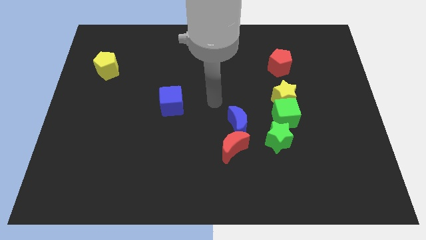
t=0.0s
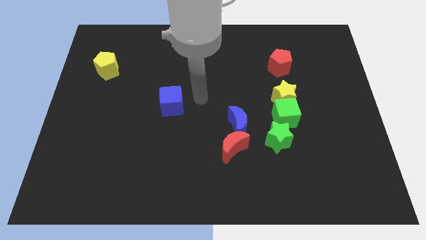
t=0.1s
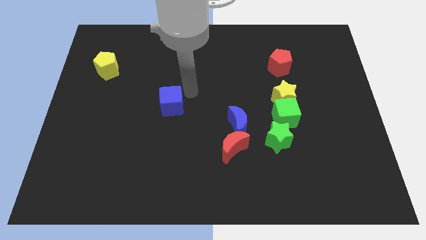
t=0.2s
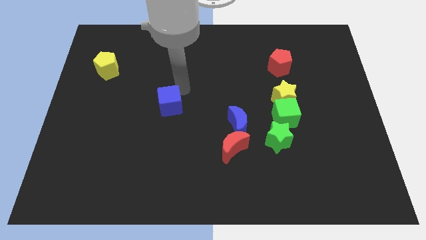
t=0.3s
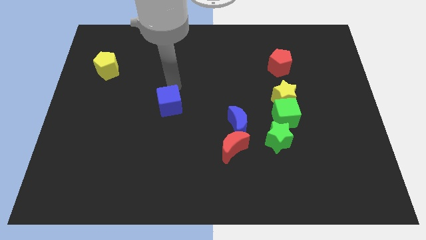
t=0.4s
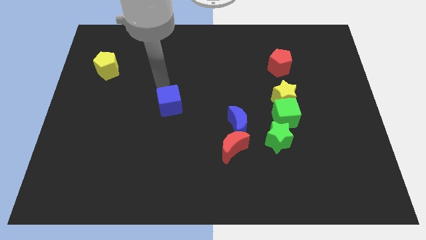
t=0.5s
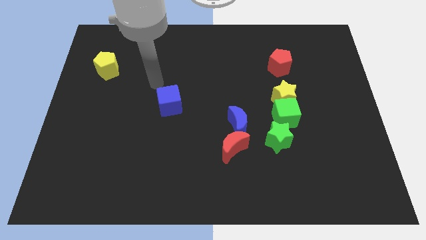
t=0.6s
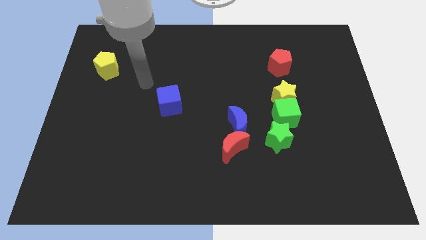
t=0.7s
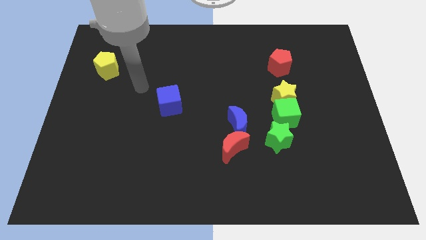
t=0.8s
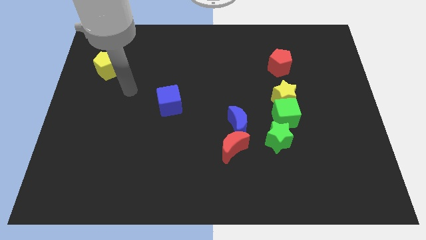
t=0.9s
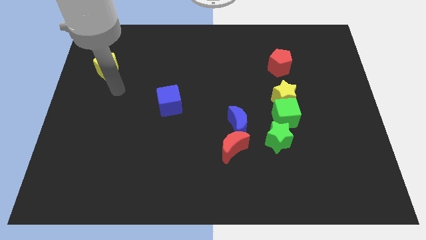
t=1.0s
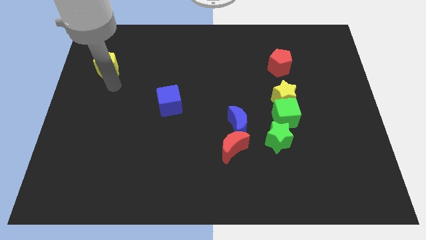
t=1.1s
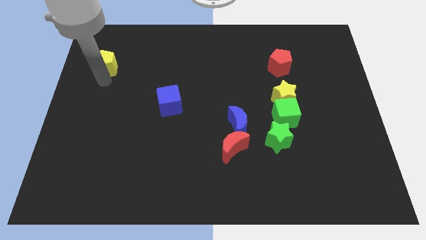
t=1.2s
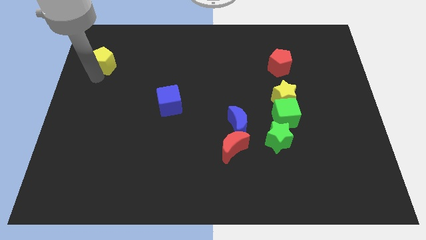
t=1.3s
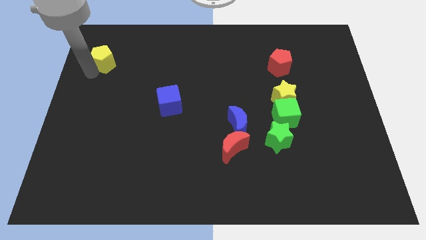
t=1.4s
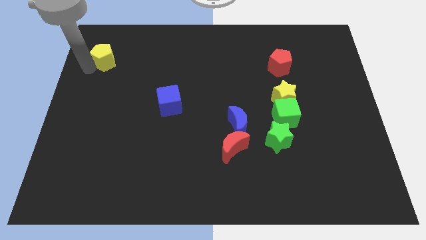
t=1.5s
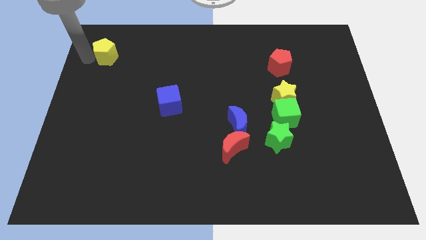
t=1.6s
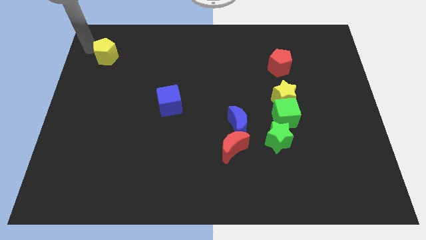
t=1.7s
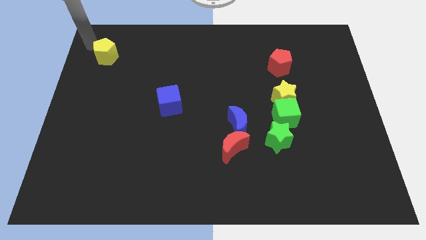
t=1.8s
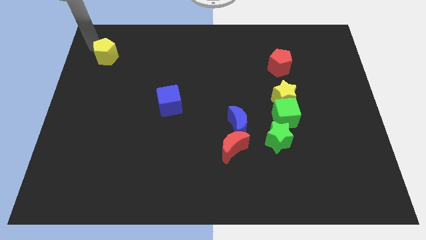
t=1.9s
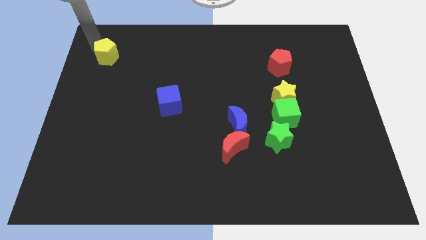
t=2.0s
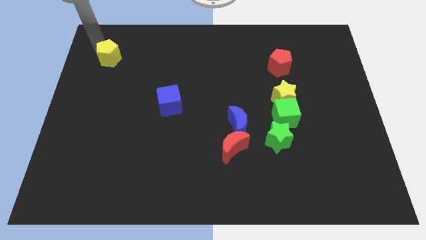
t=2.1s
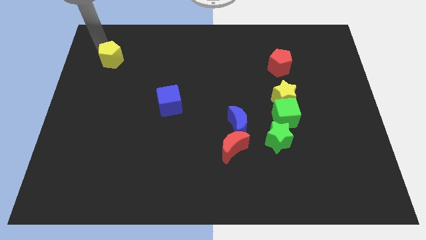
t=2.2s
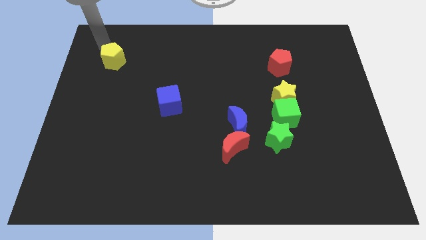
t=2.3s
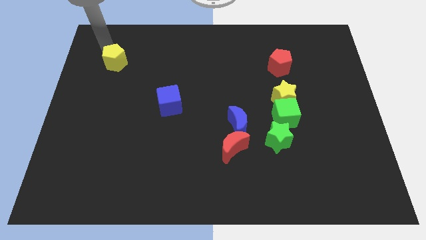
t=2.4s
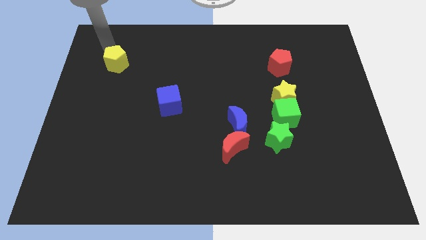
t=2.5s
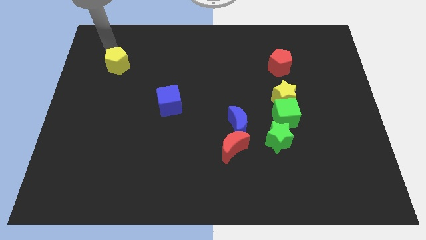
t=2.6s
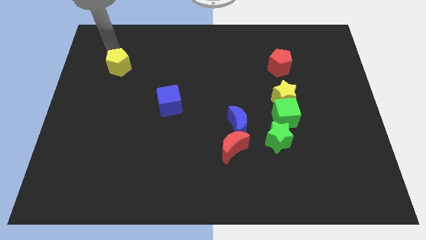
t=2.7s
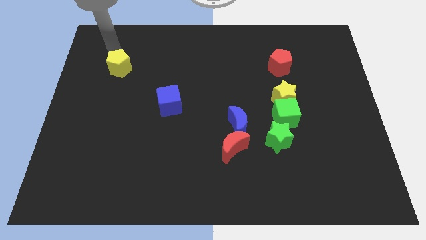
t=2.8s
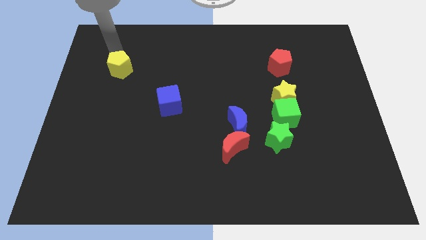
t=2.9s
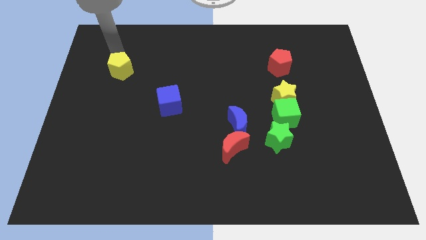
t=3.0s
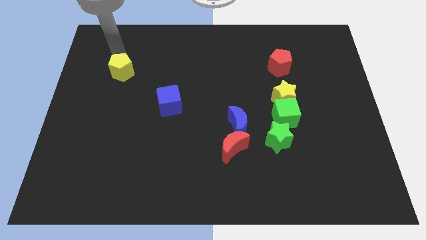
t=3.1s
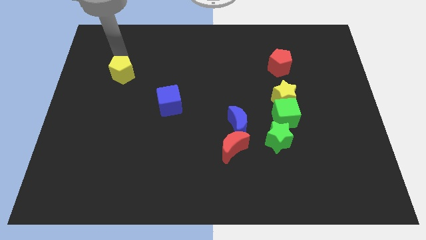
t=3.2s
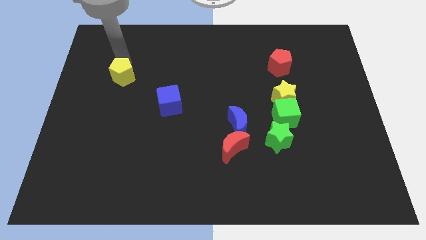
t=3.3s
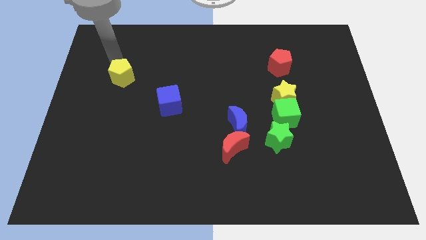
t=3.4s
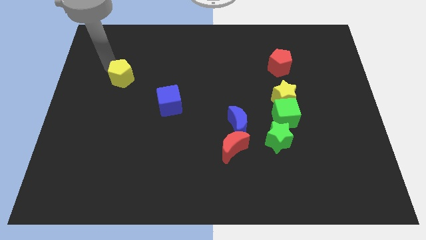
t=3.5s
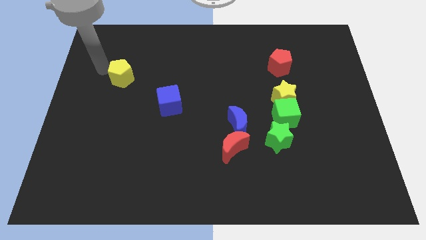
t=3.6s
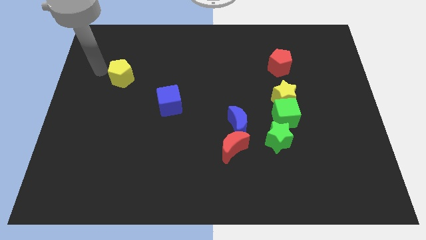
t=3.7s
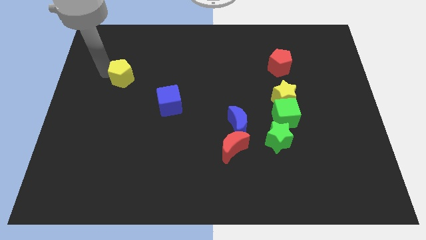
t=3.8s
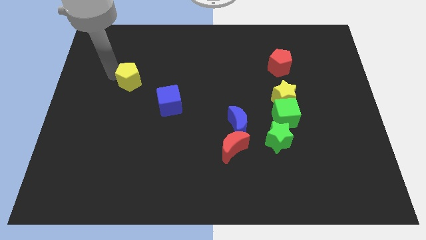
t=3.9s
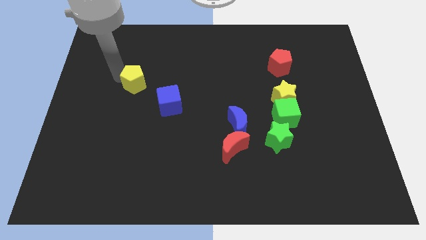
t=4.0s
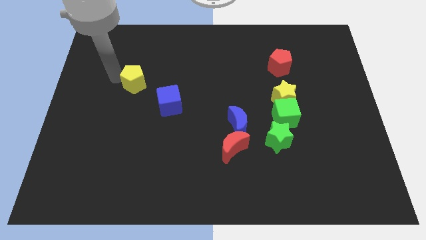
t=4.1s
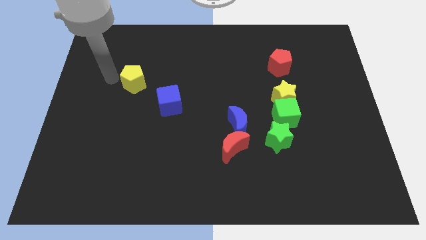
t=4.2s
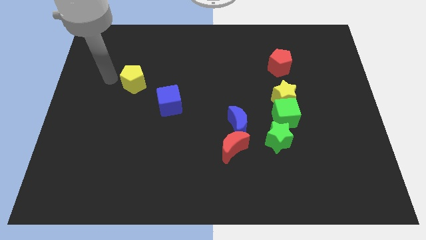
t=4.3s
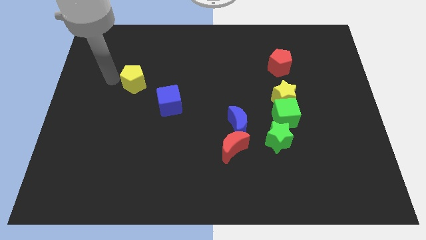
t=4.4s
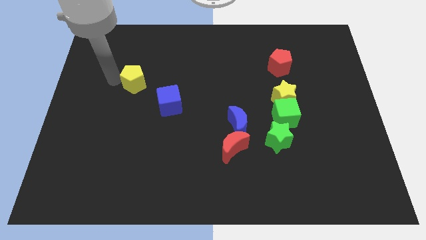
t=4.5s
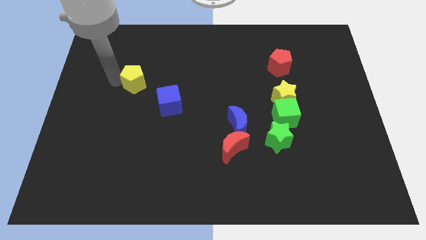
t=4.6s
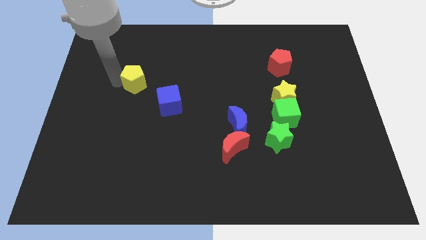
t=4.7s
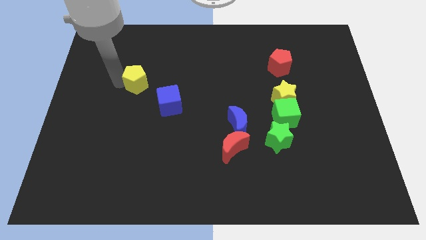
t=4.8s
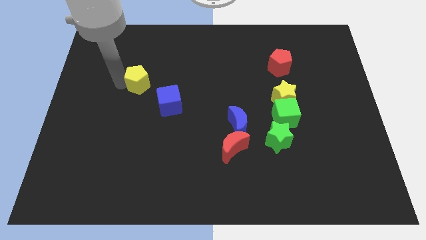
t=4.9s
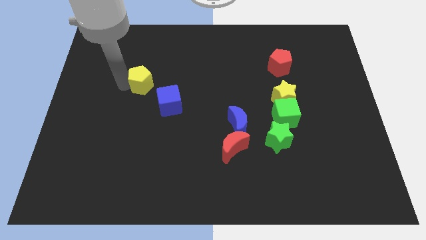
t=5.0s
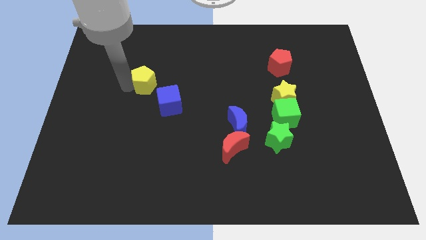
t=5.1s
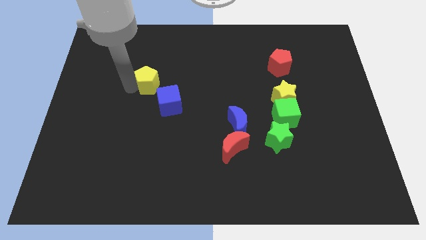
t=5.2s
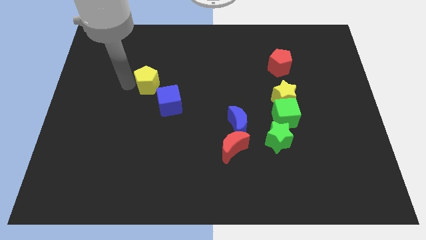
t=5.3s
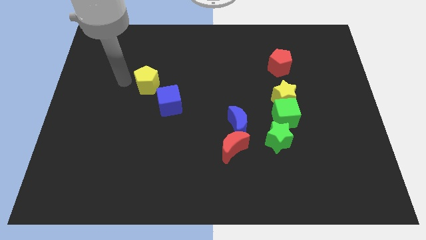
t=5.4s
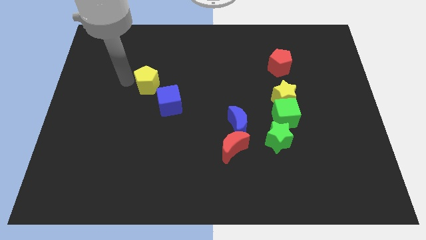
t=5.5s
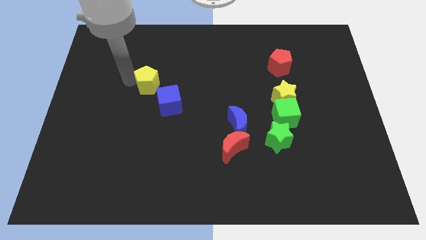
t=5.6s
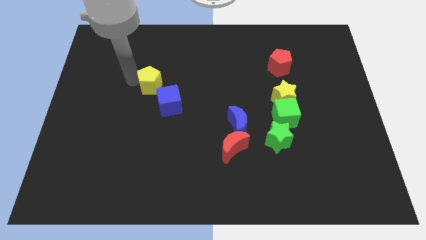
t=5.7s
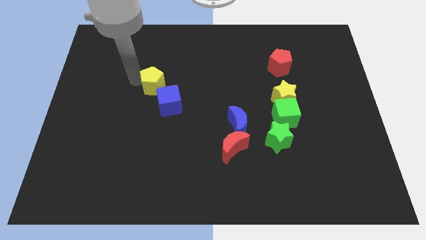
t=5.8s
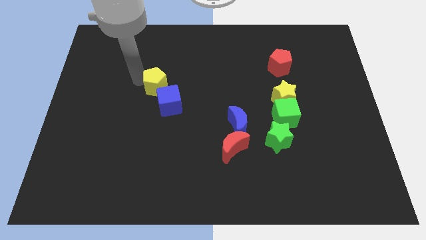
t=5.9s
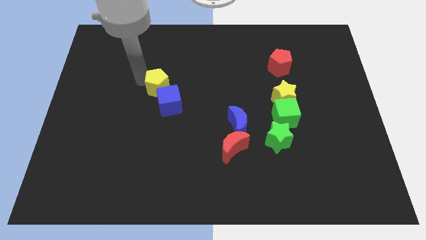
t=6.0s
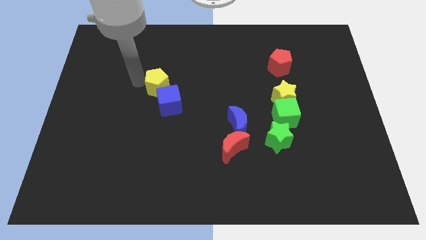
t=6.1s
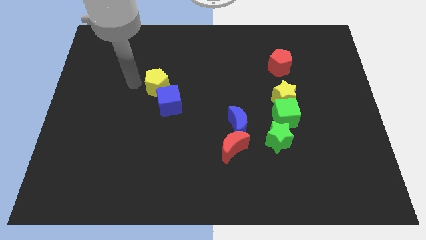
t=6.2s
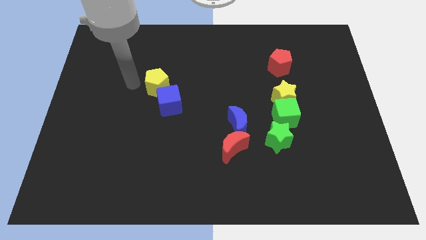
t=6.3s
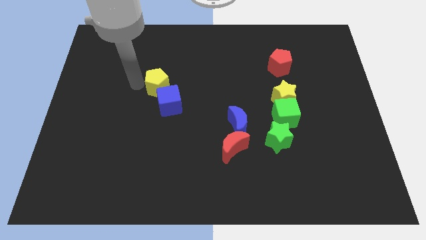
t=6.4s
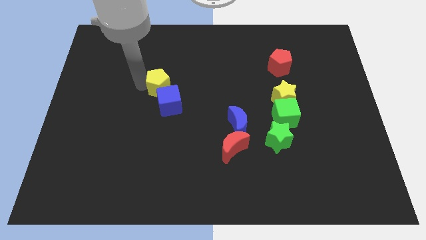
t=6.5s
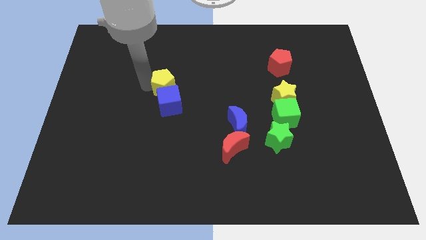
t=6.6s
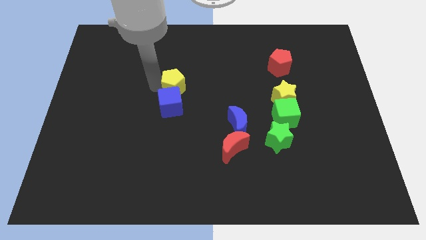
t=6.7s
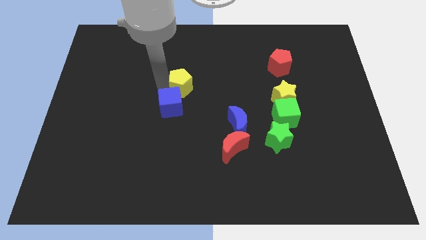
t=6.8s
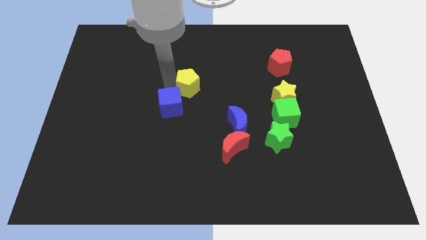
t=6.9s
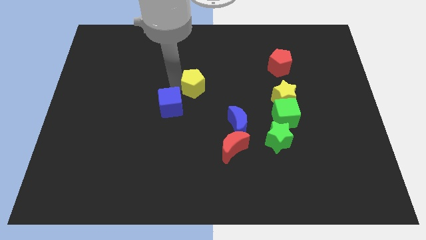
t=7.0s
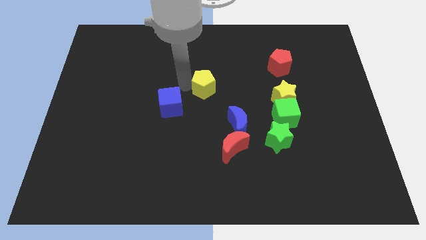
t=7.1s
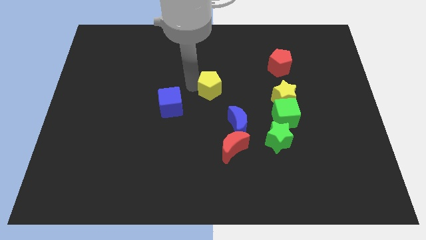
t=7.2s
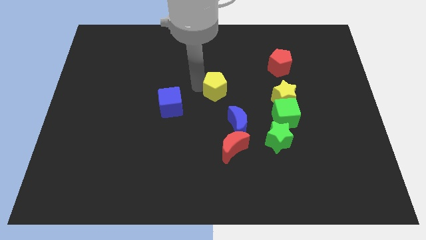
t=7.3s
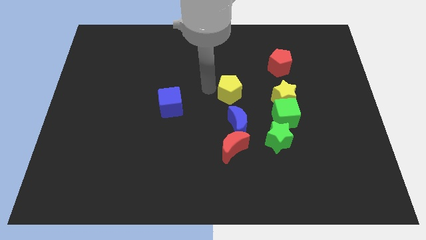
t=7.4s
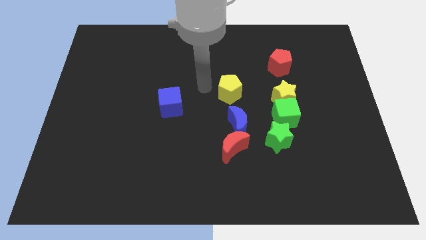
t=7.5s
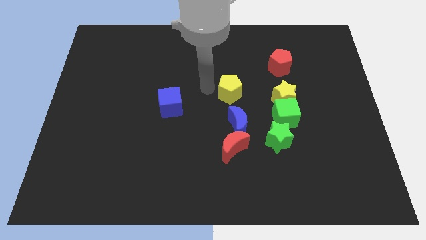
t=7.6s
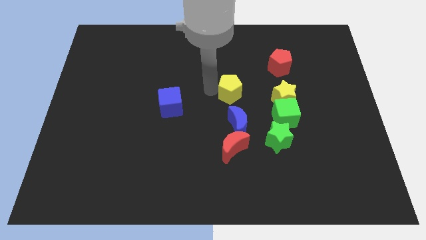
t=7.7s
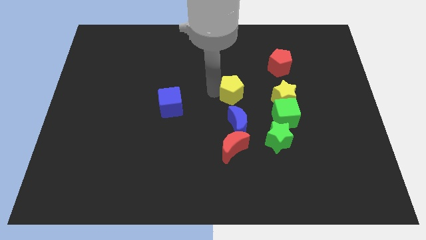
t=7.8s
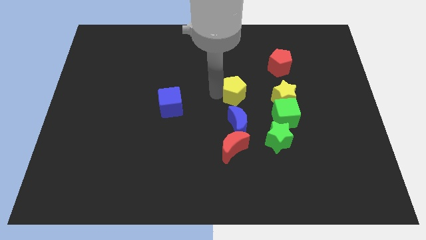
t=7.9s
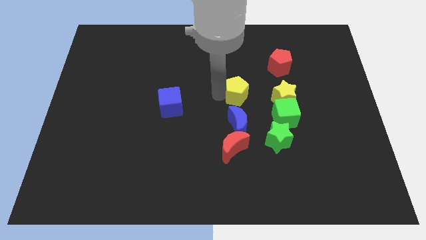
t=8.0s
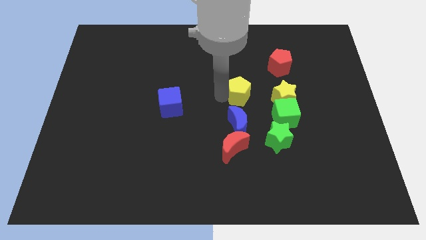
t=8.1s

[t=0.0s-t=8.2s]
push the yellow pentagon to the top left side of the green cube
